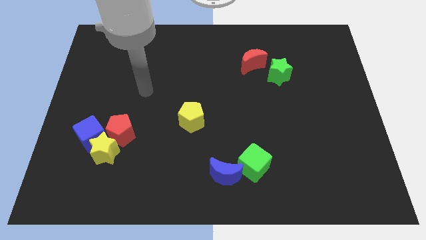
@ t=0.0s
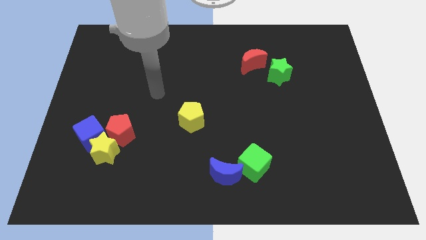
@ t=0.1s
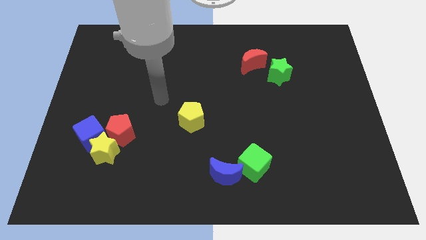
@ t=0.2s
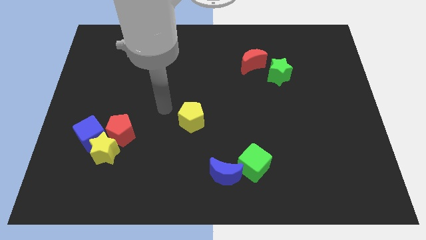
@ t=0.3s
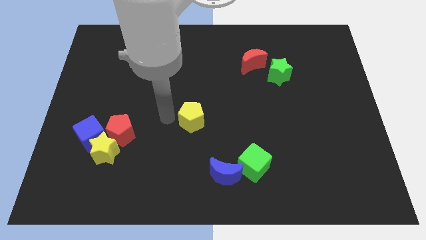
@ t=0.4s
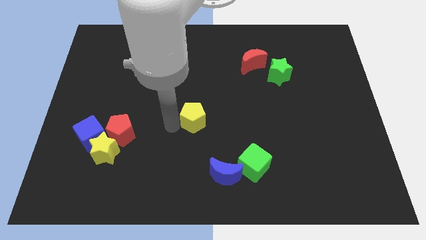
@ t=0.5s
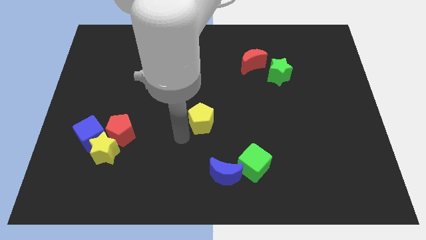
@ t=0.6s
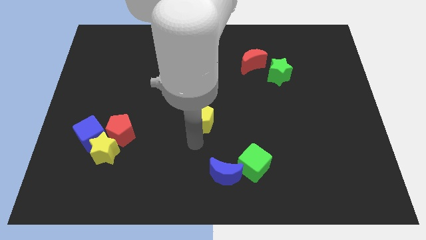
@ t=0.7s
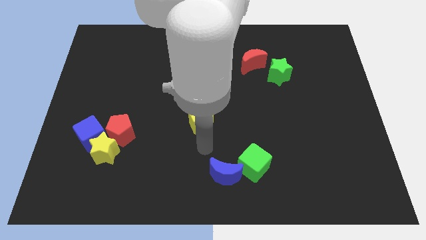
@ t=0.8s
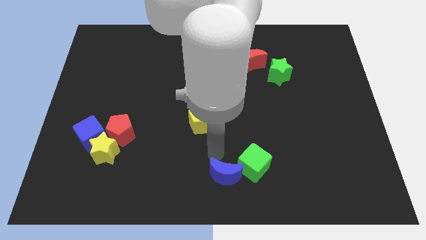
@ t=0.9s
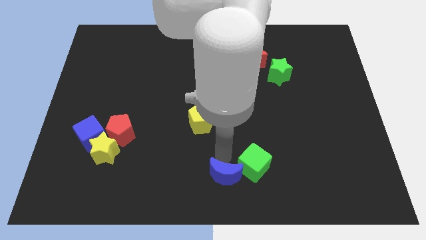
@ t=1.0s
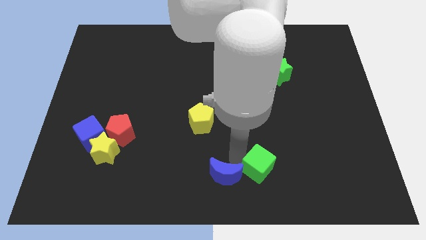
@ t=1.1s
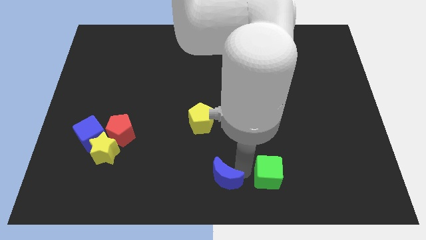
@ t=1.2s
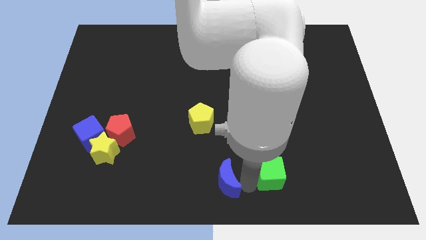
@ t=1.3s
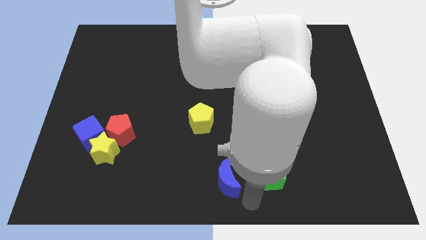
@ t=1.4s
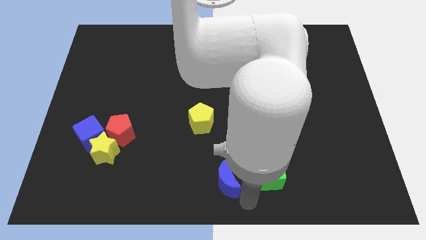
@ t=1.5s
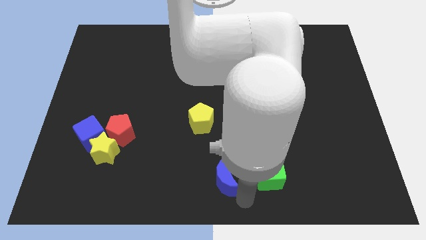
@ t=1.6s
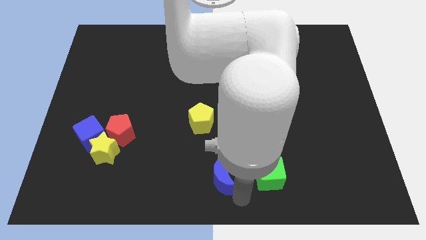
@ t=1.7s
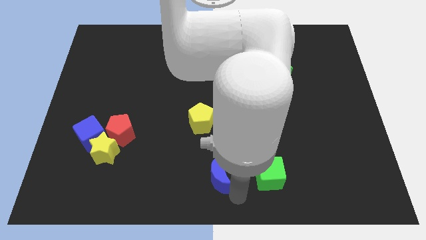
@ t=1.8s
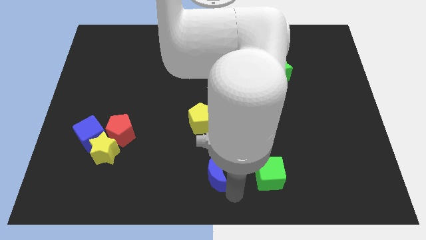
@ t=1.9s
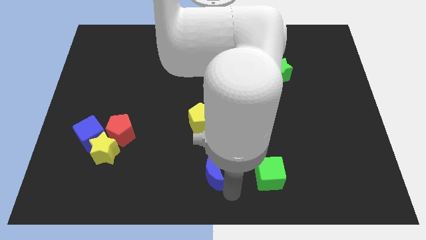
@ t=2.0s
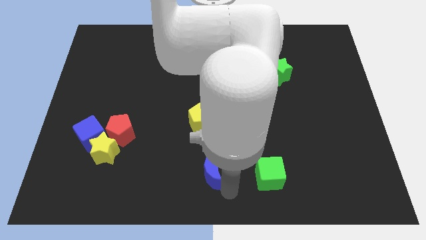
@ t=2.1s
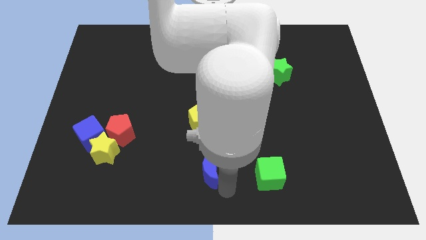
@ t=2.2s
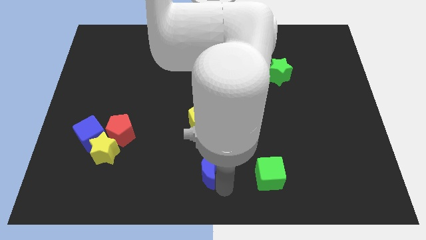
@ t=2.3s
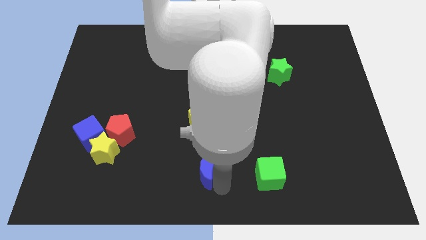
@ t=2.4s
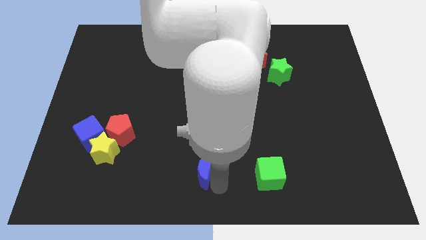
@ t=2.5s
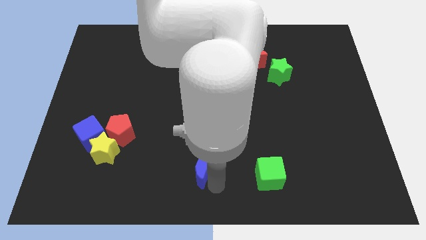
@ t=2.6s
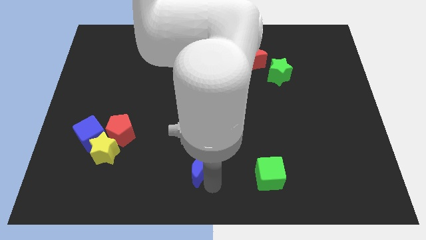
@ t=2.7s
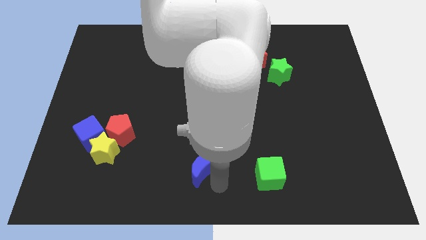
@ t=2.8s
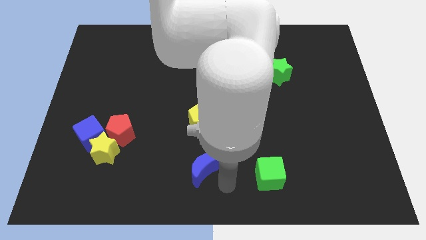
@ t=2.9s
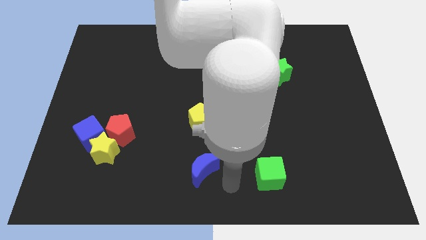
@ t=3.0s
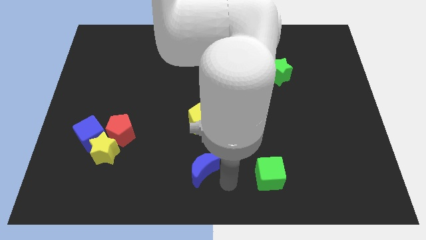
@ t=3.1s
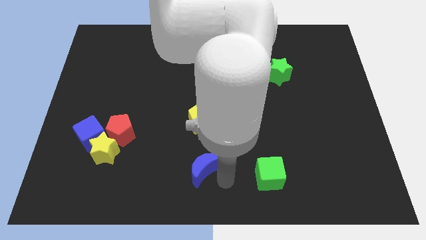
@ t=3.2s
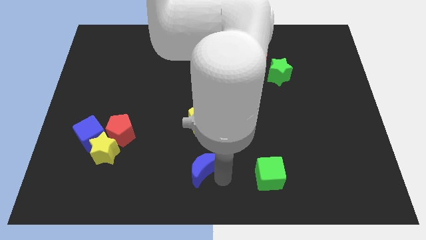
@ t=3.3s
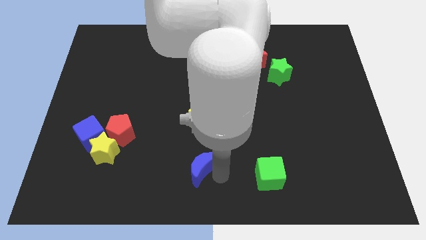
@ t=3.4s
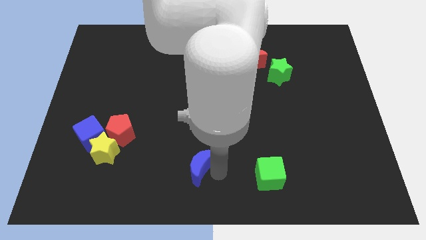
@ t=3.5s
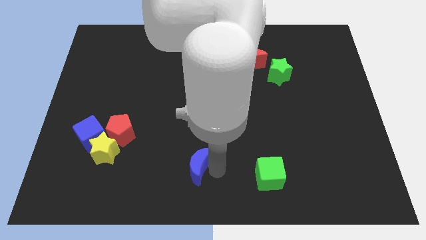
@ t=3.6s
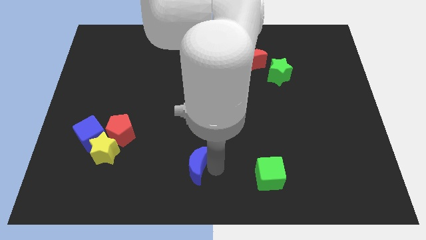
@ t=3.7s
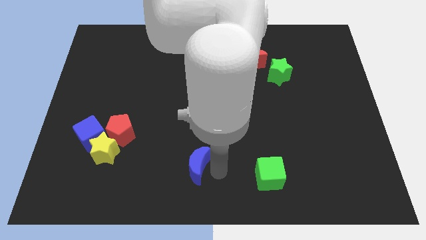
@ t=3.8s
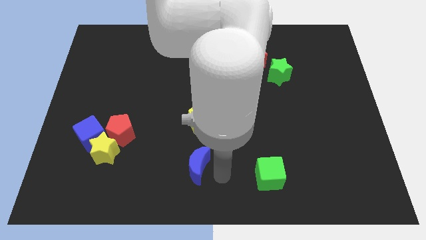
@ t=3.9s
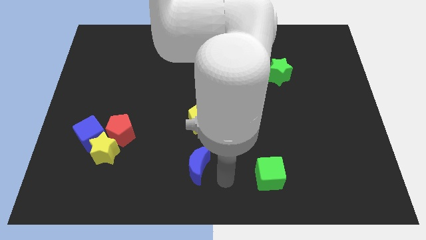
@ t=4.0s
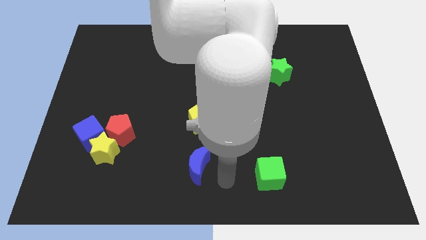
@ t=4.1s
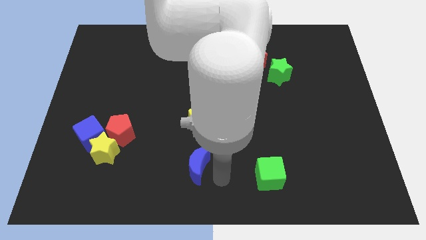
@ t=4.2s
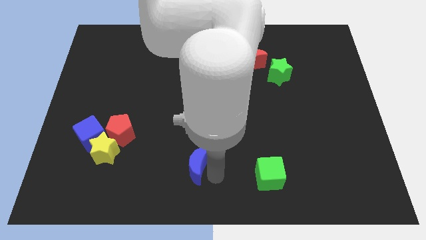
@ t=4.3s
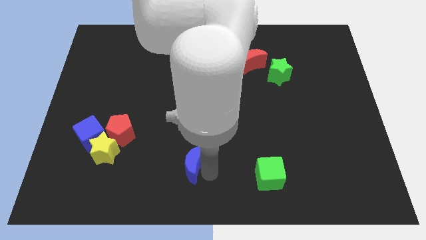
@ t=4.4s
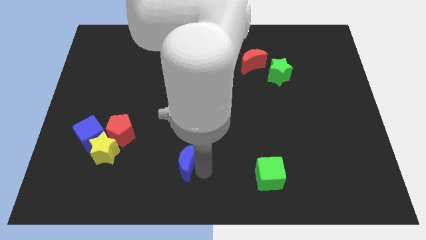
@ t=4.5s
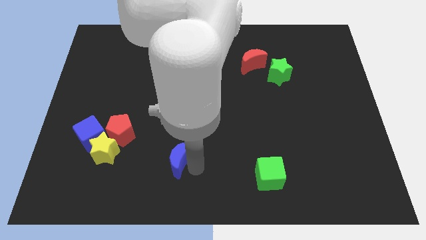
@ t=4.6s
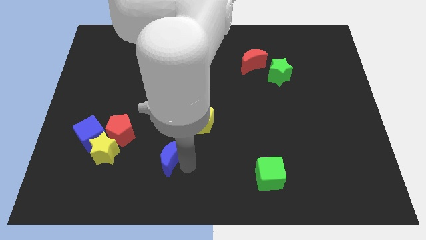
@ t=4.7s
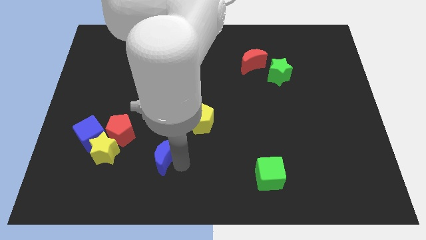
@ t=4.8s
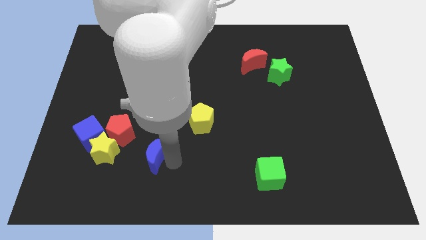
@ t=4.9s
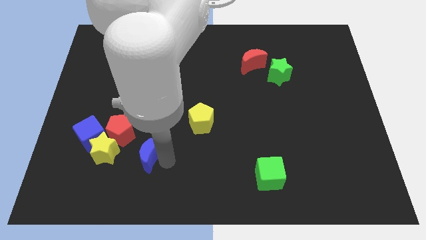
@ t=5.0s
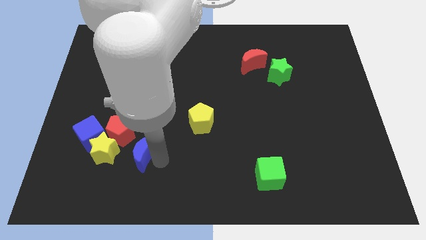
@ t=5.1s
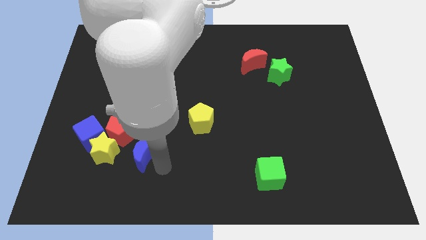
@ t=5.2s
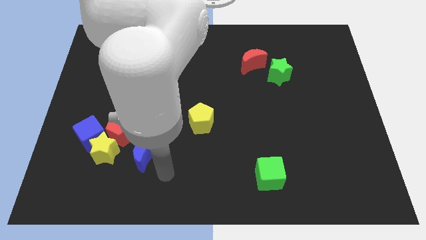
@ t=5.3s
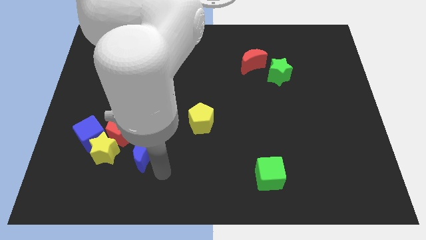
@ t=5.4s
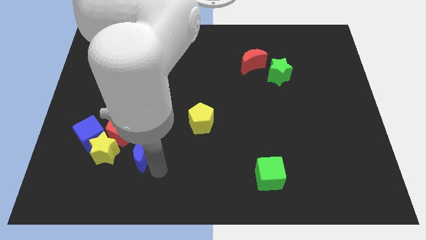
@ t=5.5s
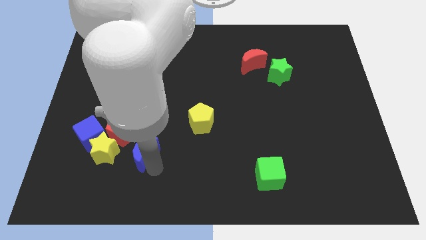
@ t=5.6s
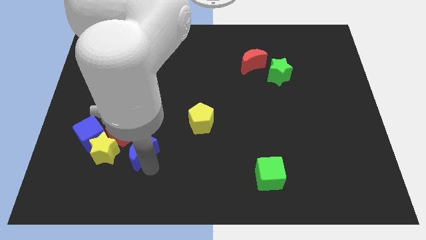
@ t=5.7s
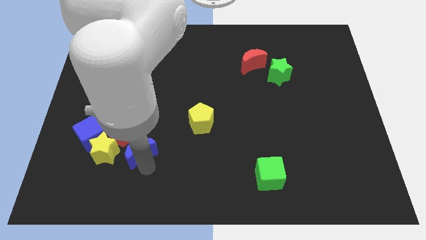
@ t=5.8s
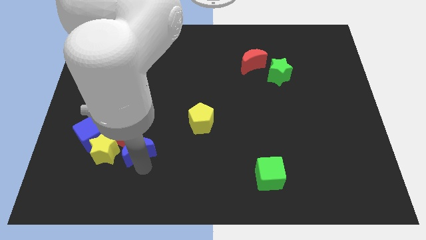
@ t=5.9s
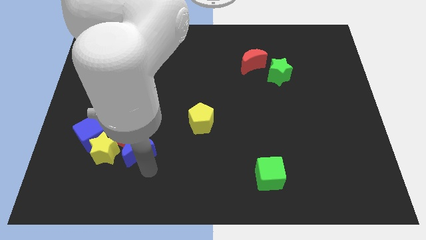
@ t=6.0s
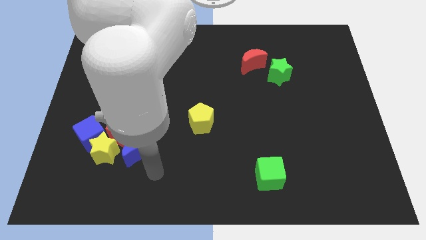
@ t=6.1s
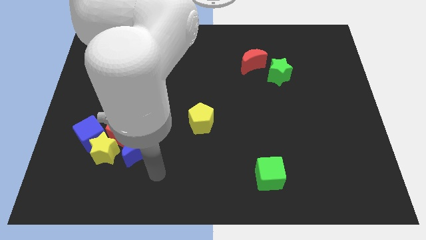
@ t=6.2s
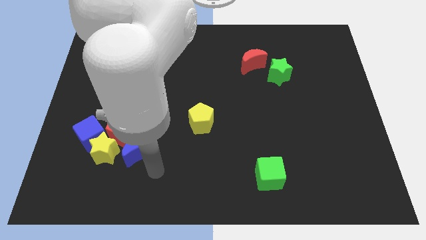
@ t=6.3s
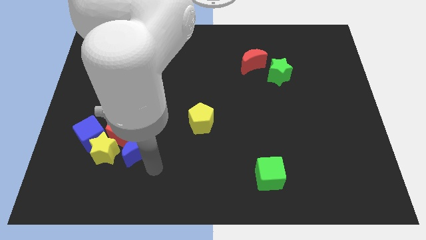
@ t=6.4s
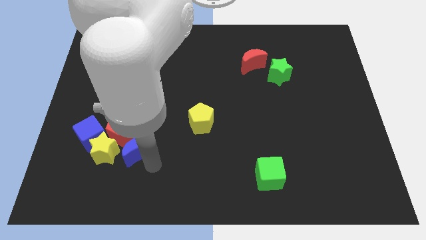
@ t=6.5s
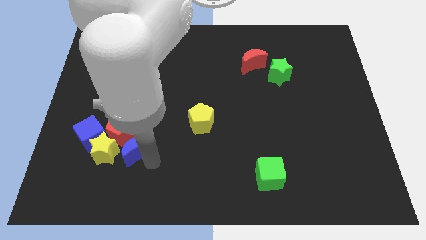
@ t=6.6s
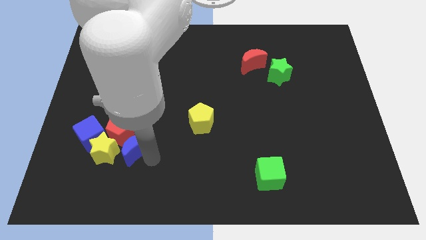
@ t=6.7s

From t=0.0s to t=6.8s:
put the blue moon to the red pentagon
